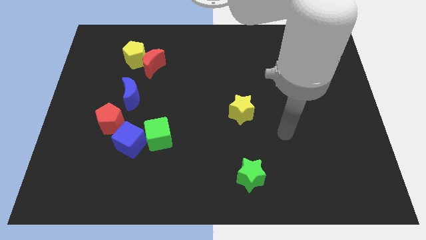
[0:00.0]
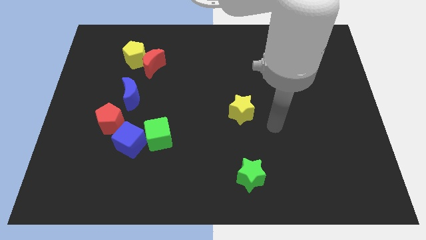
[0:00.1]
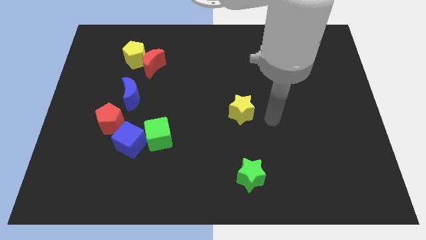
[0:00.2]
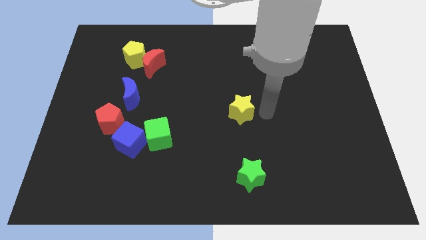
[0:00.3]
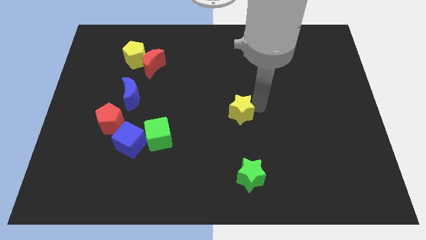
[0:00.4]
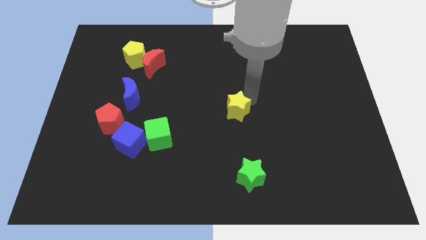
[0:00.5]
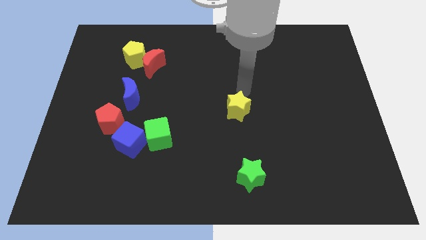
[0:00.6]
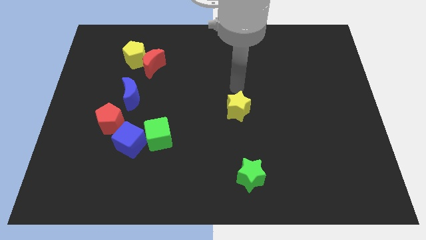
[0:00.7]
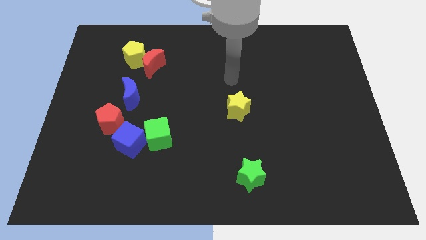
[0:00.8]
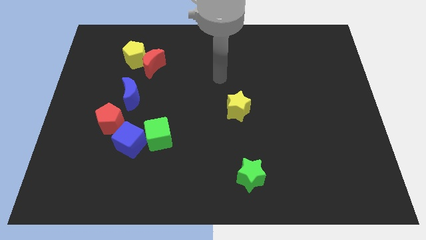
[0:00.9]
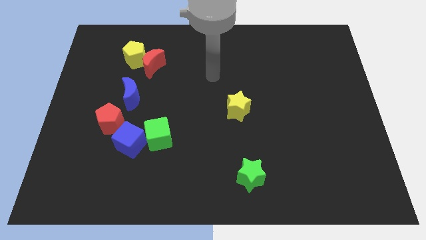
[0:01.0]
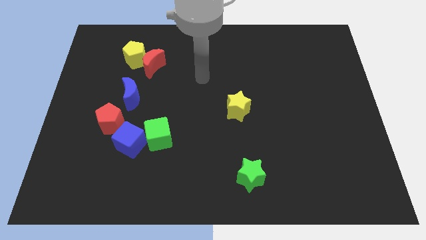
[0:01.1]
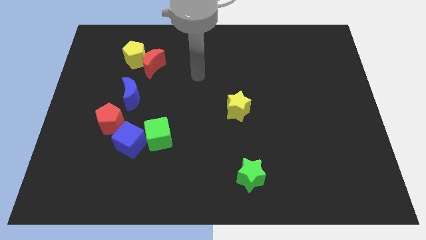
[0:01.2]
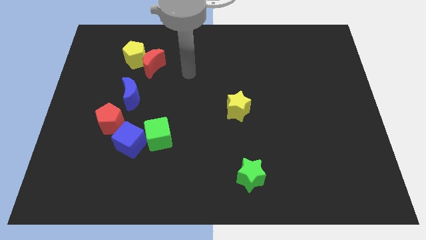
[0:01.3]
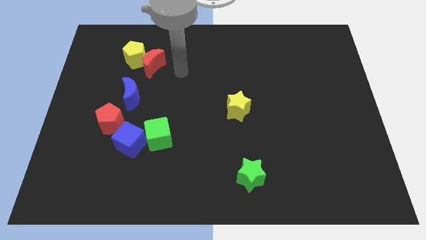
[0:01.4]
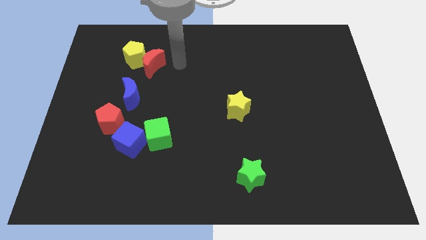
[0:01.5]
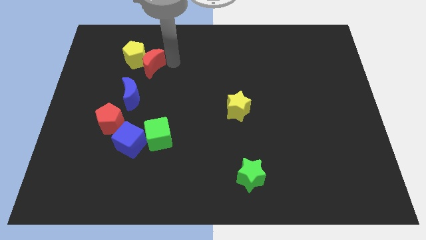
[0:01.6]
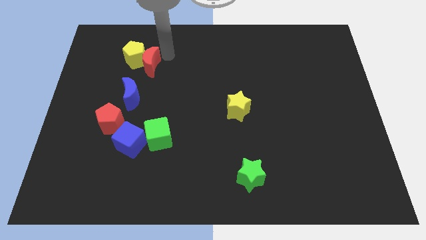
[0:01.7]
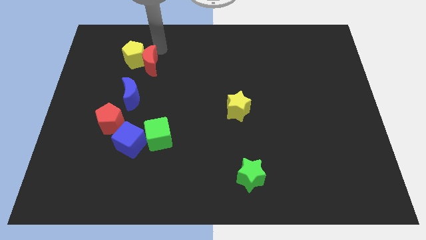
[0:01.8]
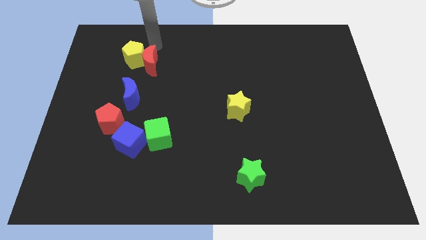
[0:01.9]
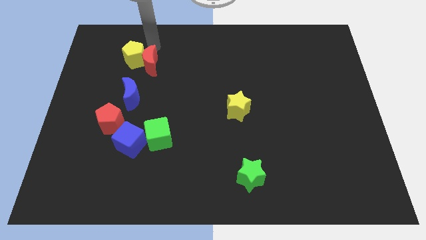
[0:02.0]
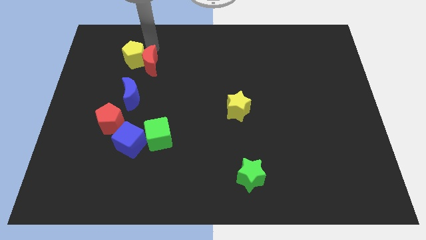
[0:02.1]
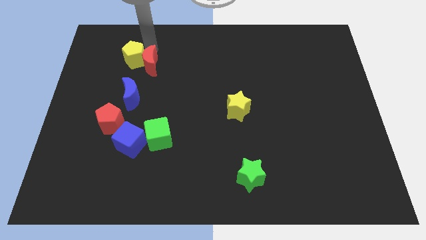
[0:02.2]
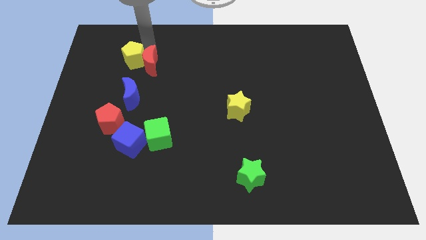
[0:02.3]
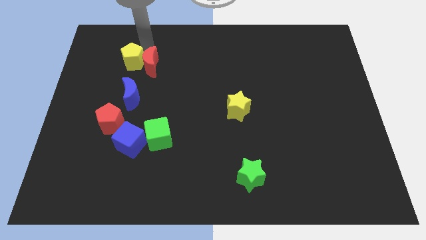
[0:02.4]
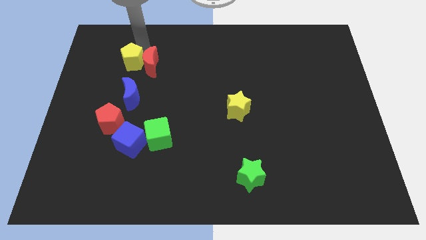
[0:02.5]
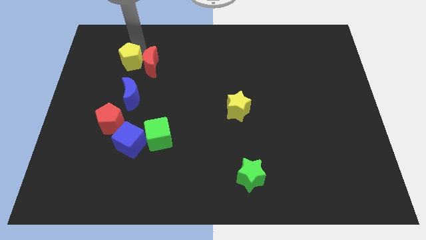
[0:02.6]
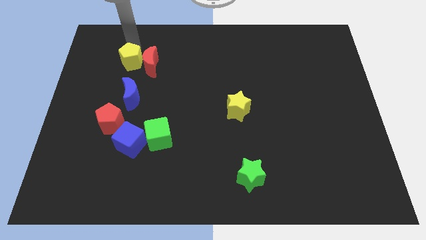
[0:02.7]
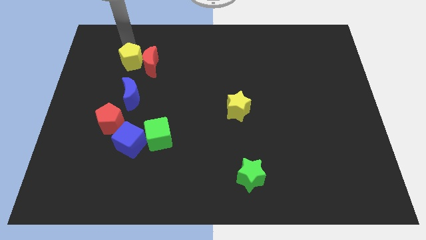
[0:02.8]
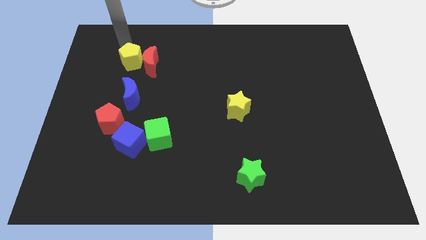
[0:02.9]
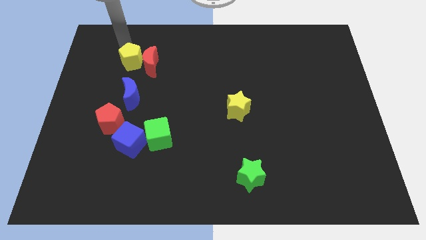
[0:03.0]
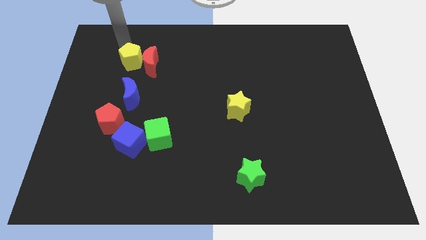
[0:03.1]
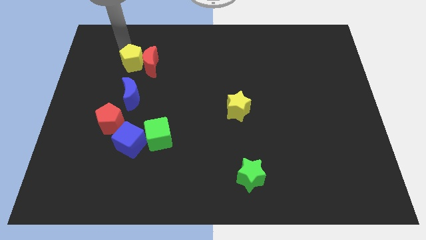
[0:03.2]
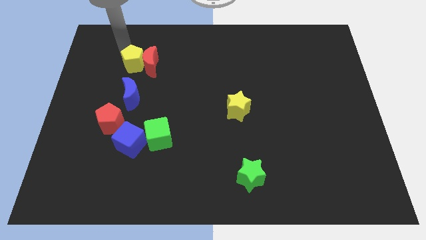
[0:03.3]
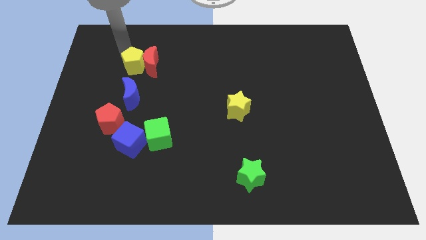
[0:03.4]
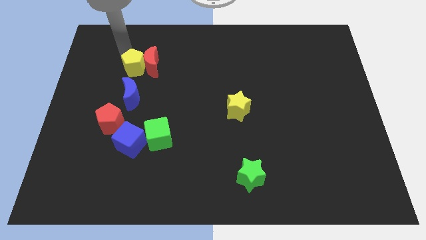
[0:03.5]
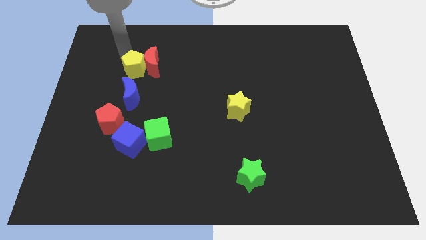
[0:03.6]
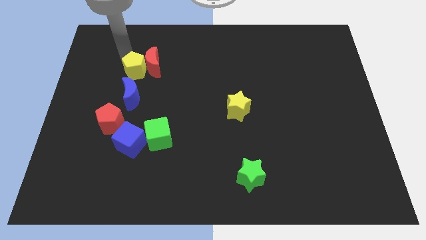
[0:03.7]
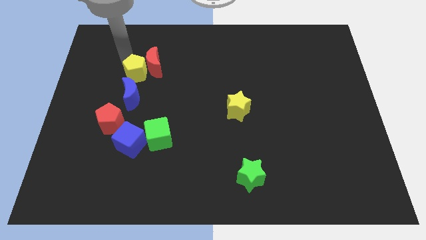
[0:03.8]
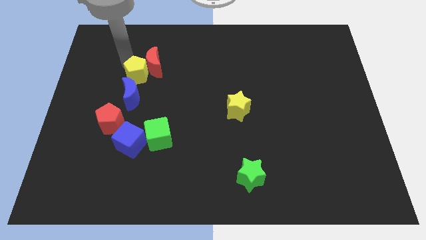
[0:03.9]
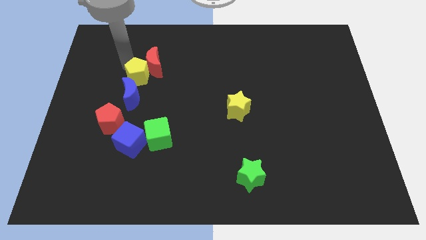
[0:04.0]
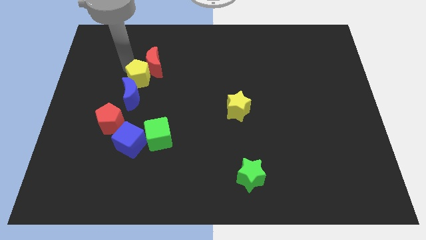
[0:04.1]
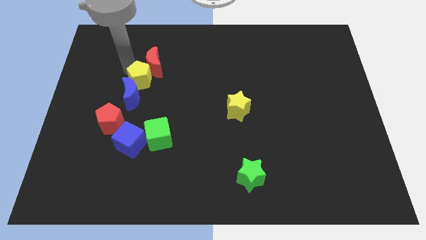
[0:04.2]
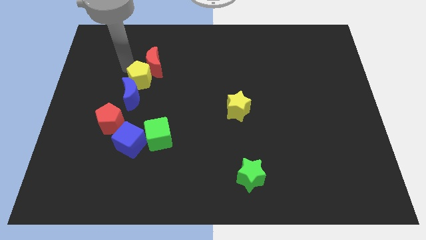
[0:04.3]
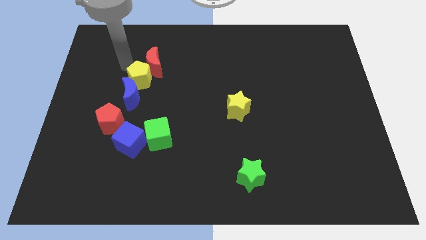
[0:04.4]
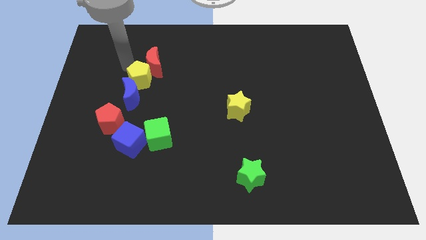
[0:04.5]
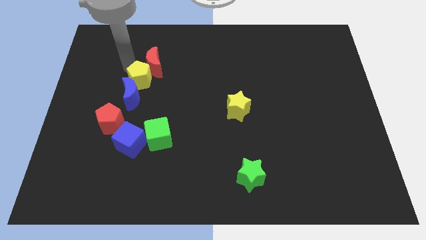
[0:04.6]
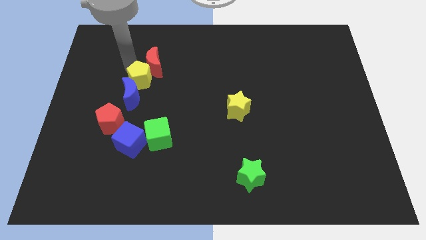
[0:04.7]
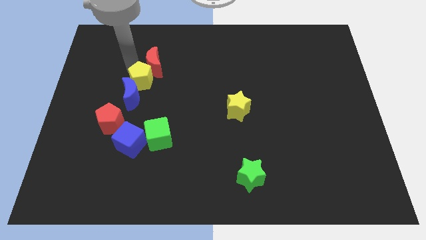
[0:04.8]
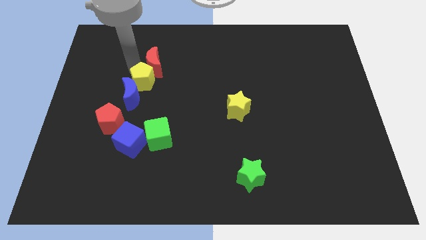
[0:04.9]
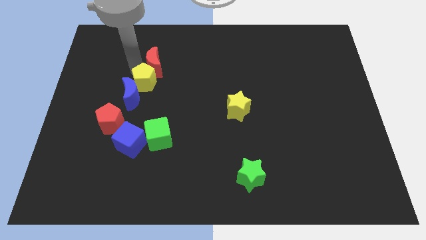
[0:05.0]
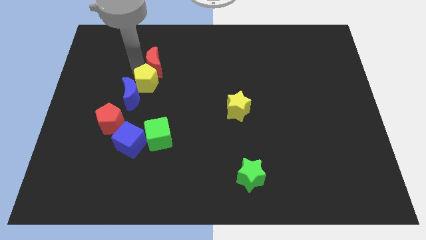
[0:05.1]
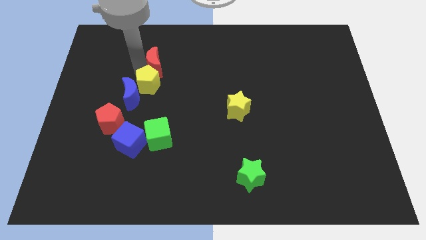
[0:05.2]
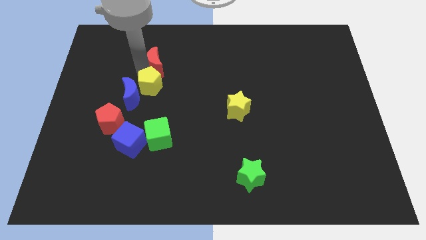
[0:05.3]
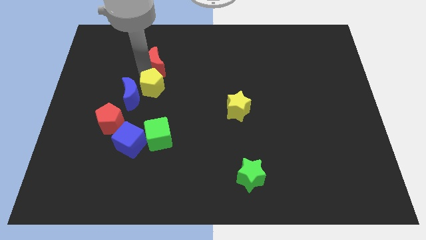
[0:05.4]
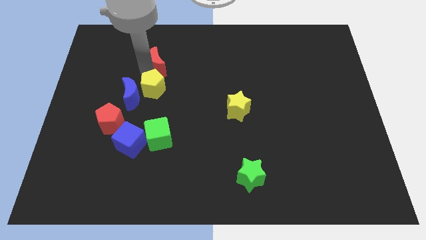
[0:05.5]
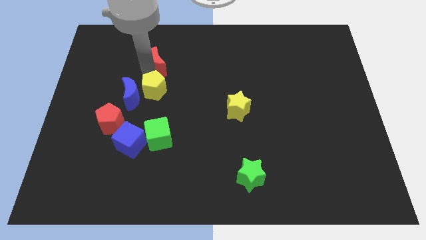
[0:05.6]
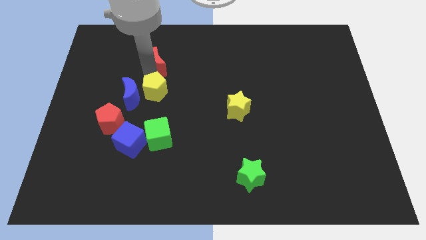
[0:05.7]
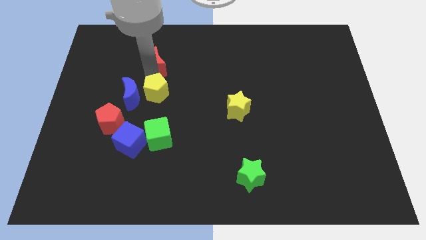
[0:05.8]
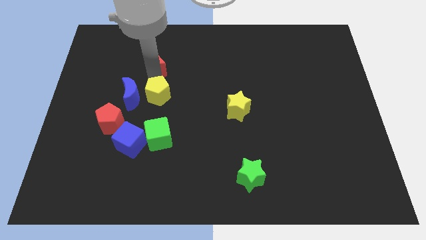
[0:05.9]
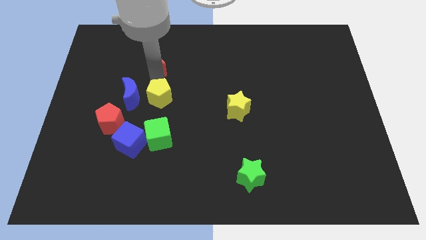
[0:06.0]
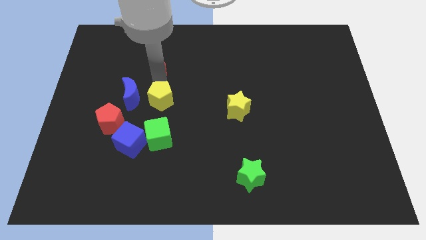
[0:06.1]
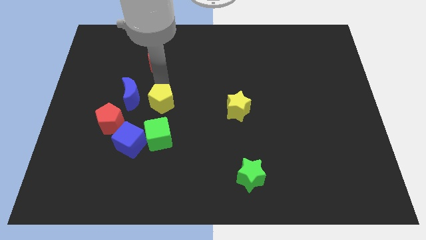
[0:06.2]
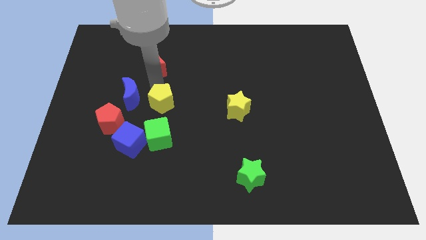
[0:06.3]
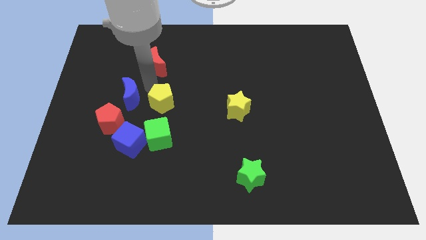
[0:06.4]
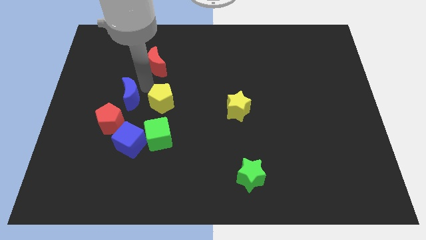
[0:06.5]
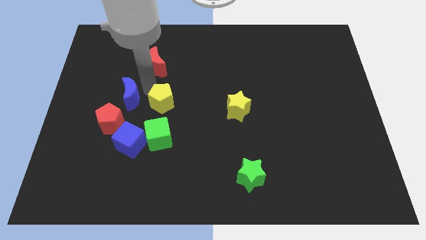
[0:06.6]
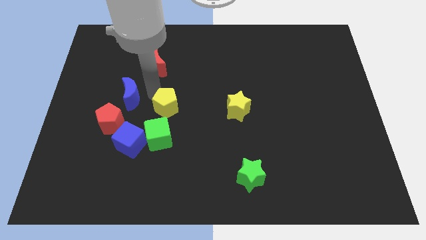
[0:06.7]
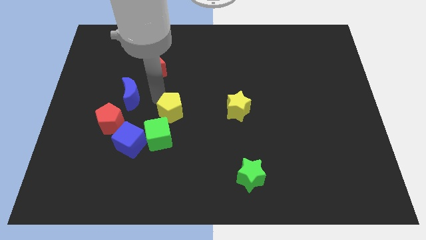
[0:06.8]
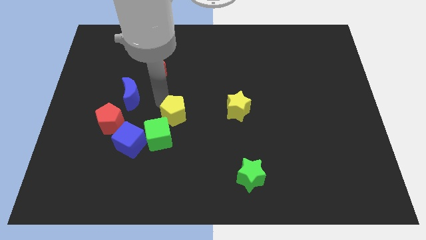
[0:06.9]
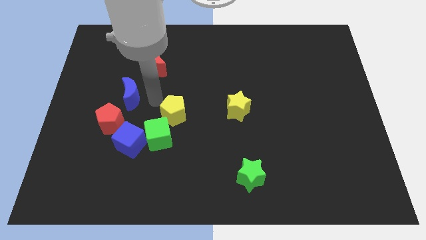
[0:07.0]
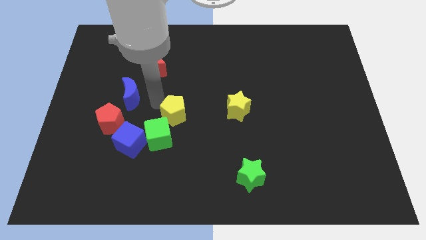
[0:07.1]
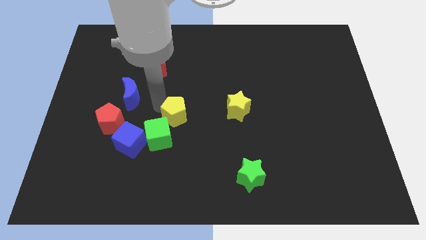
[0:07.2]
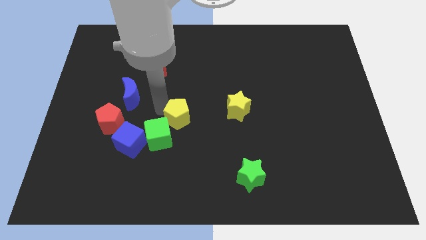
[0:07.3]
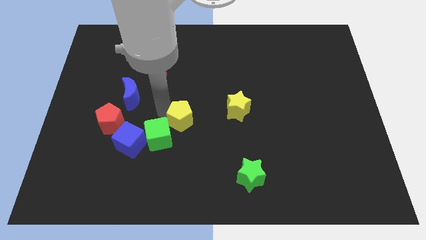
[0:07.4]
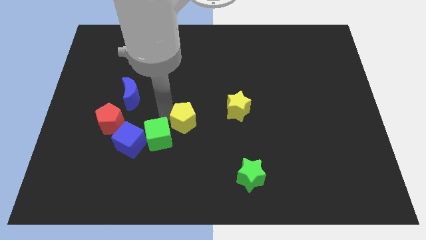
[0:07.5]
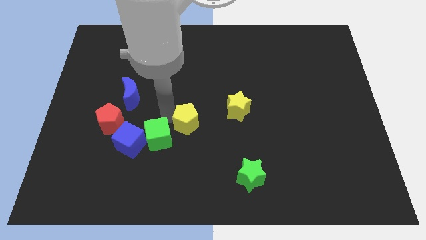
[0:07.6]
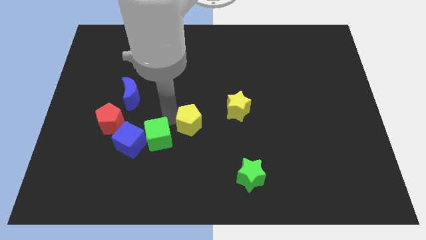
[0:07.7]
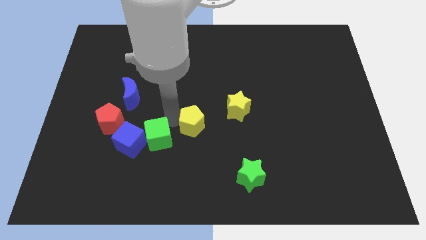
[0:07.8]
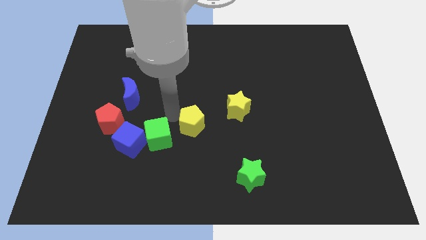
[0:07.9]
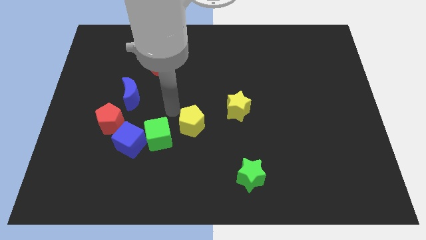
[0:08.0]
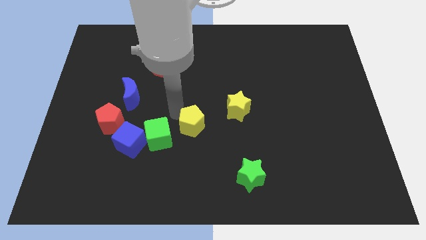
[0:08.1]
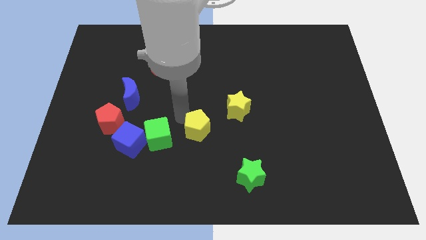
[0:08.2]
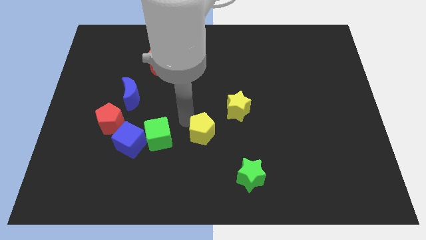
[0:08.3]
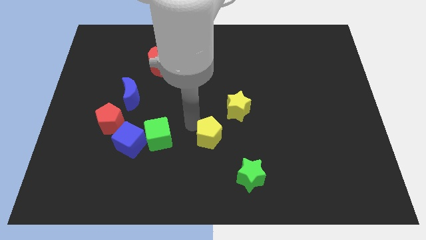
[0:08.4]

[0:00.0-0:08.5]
put the yellow pentagon to the top left of the green star
